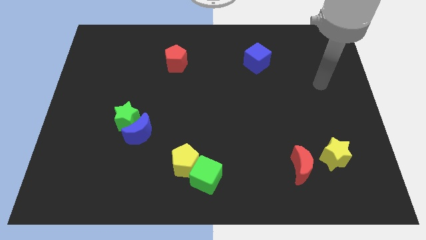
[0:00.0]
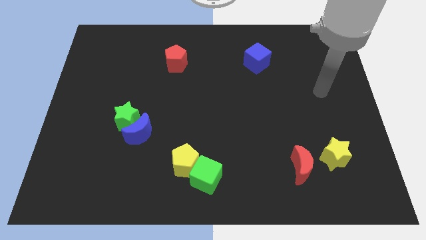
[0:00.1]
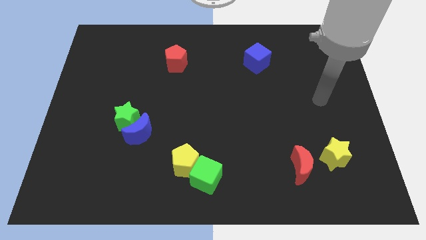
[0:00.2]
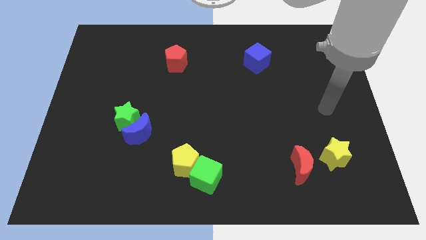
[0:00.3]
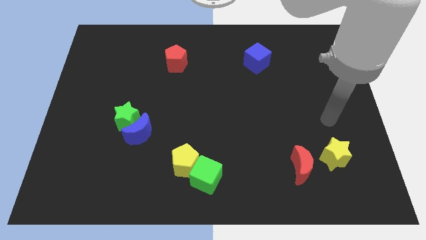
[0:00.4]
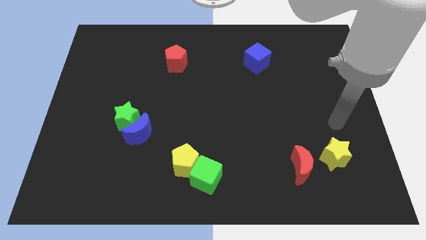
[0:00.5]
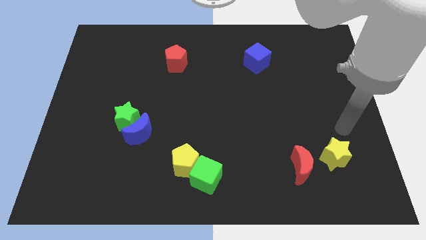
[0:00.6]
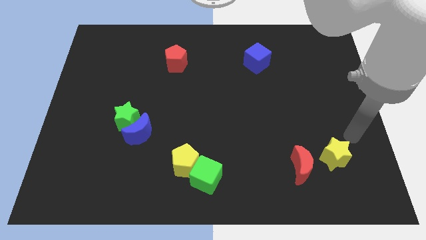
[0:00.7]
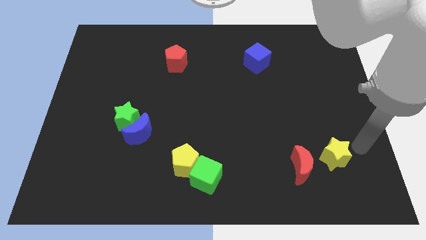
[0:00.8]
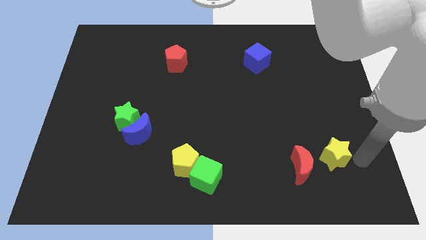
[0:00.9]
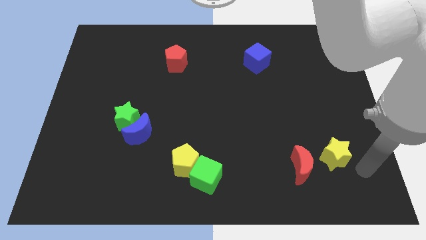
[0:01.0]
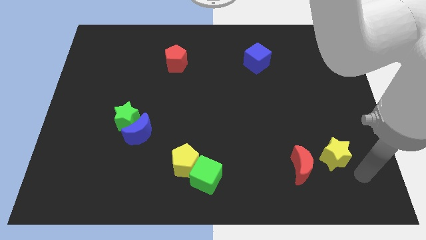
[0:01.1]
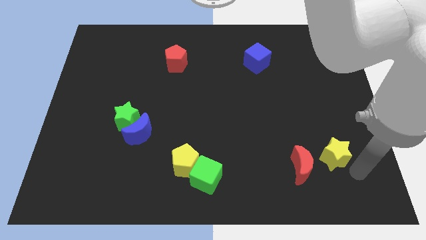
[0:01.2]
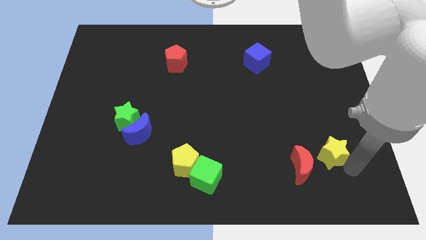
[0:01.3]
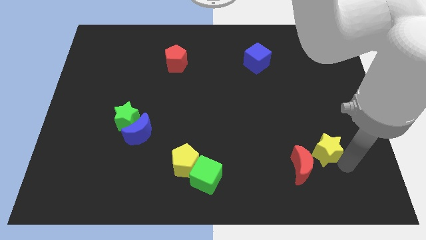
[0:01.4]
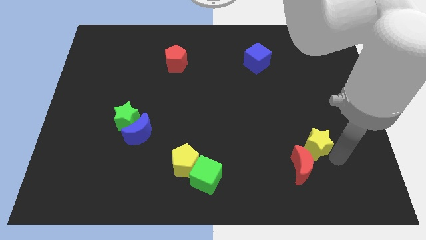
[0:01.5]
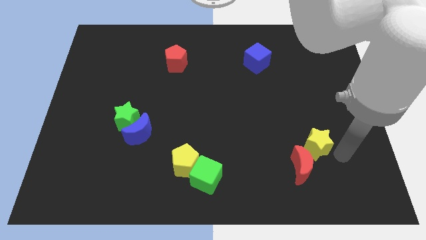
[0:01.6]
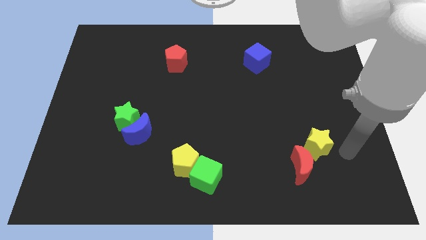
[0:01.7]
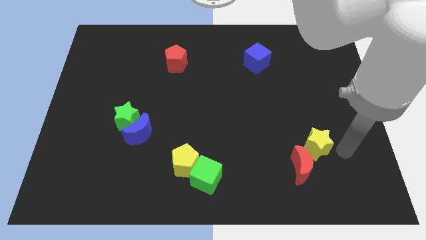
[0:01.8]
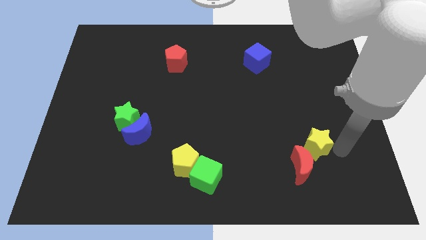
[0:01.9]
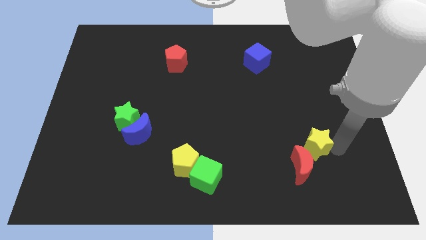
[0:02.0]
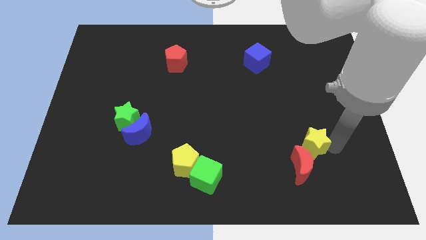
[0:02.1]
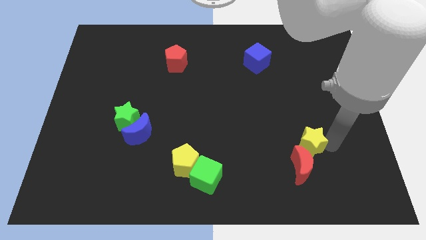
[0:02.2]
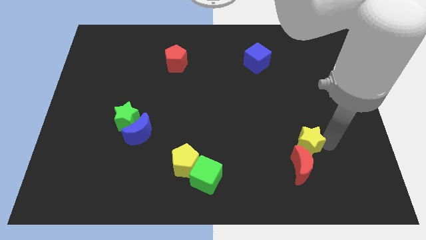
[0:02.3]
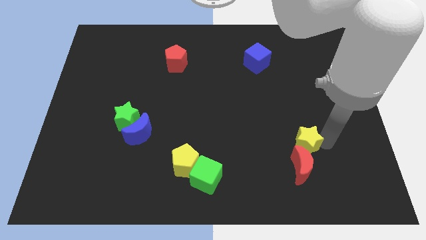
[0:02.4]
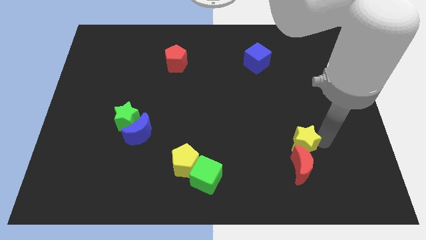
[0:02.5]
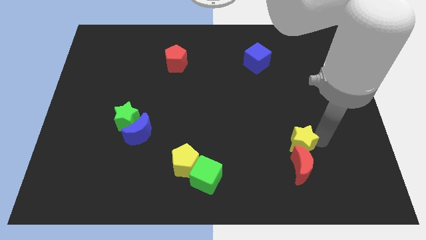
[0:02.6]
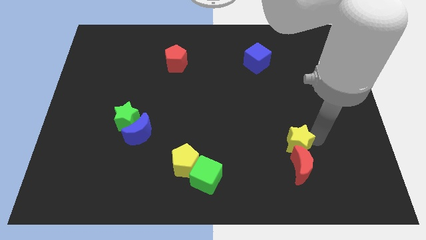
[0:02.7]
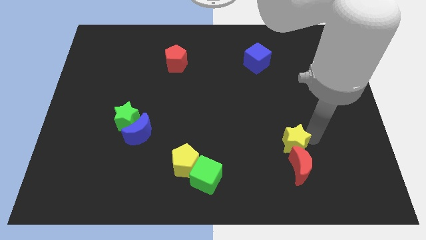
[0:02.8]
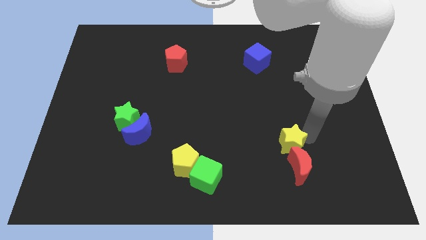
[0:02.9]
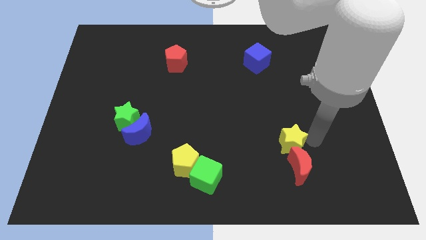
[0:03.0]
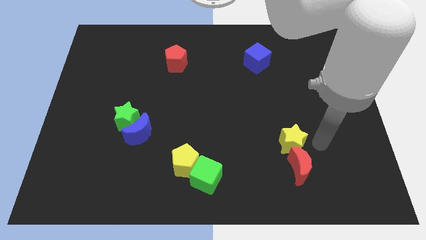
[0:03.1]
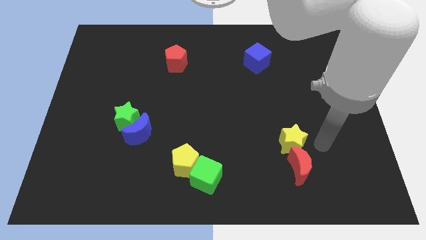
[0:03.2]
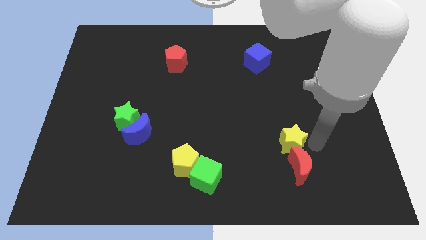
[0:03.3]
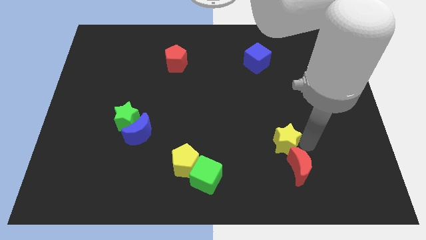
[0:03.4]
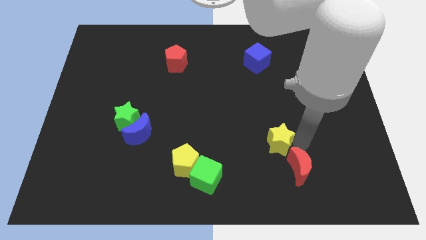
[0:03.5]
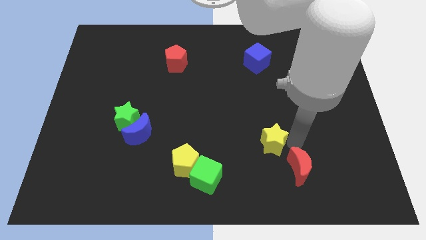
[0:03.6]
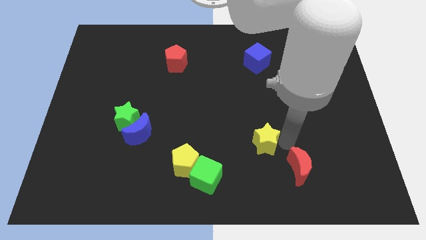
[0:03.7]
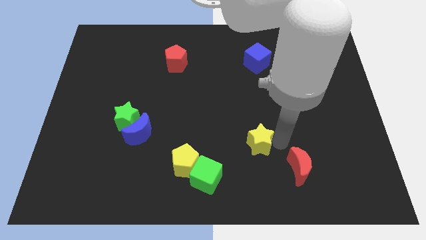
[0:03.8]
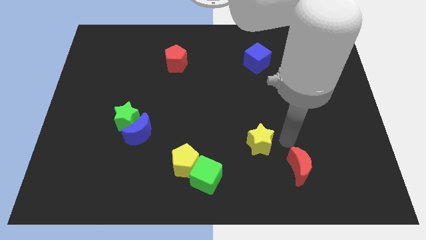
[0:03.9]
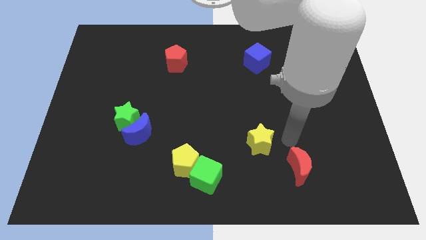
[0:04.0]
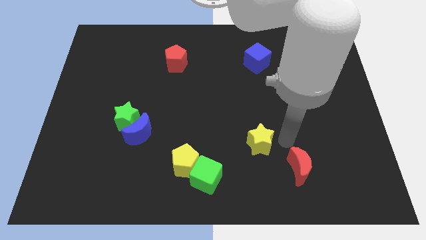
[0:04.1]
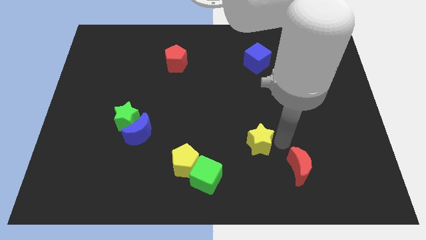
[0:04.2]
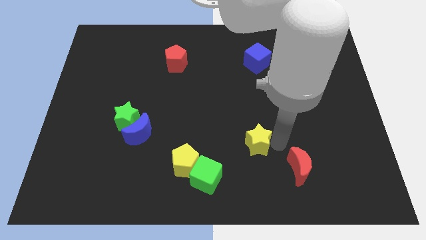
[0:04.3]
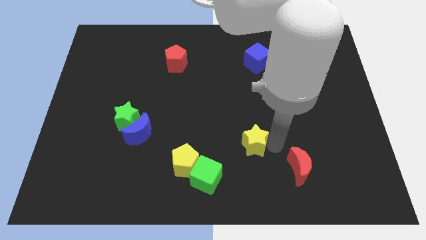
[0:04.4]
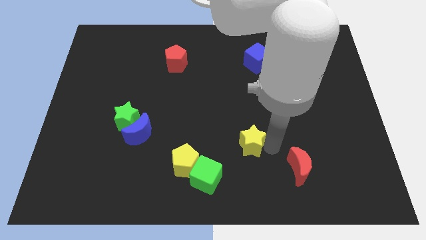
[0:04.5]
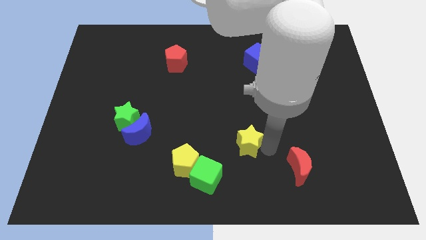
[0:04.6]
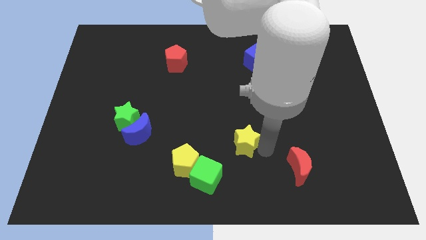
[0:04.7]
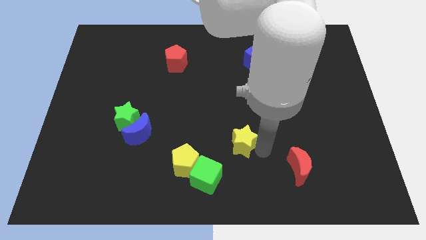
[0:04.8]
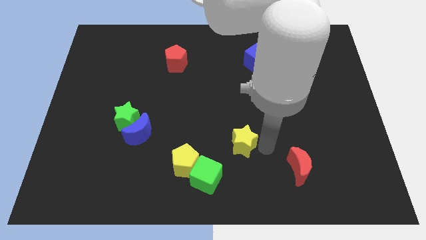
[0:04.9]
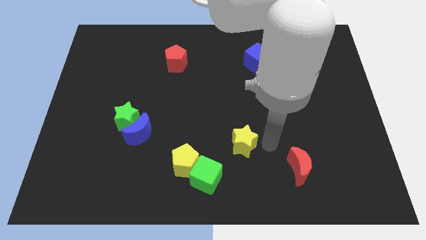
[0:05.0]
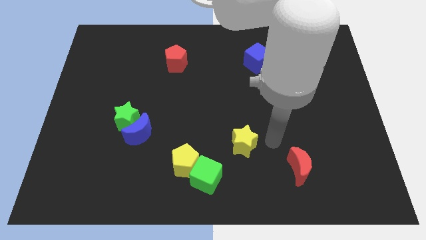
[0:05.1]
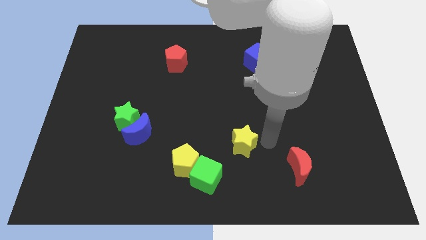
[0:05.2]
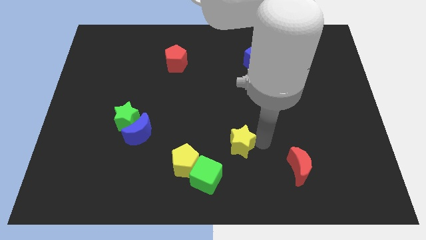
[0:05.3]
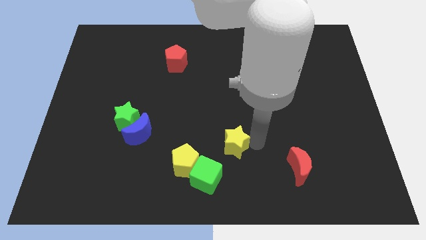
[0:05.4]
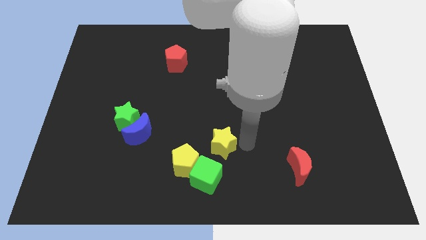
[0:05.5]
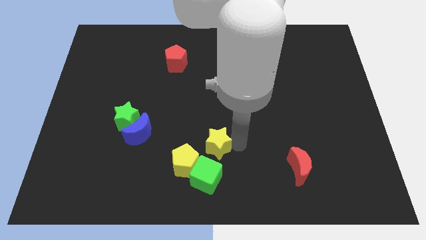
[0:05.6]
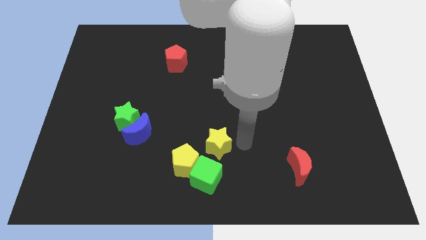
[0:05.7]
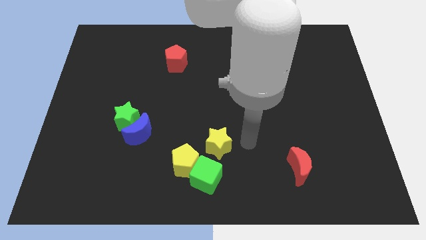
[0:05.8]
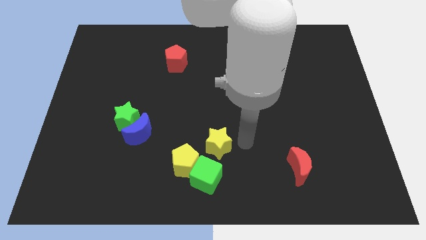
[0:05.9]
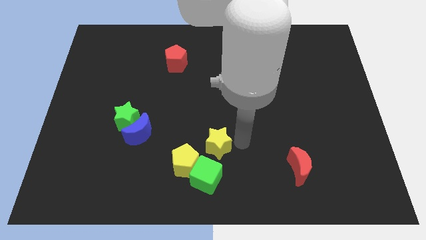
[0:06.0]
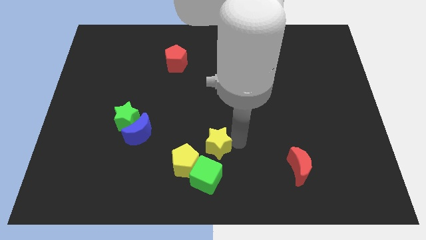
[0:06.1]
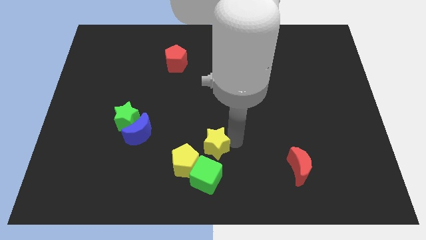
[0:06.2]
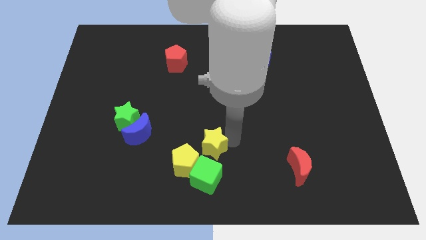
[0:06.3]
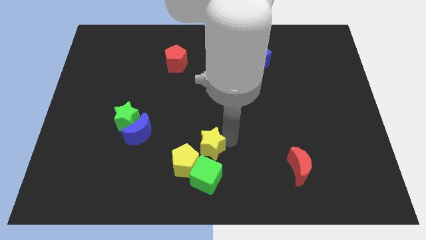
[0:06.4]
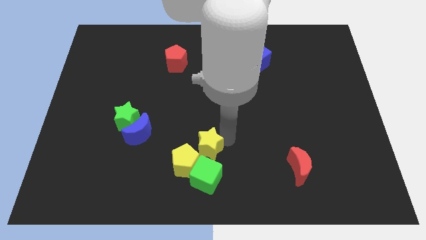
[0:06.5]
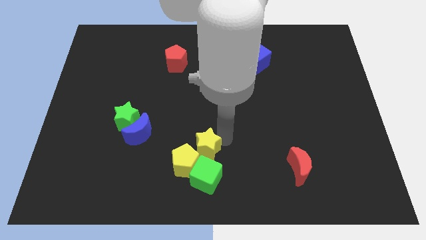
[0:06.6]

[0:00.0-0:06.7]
slide the yellow star to the yellow pentagon
